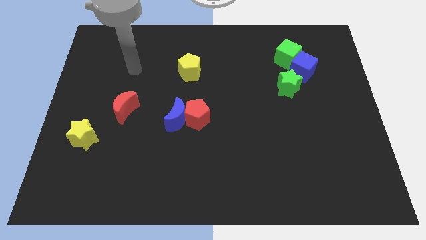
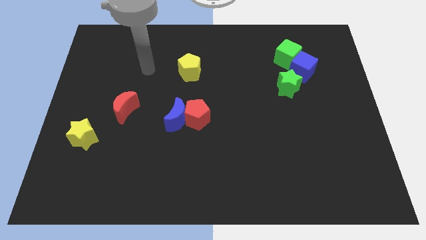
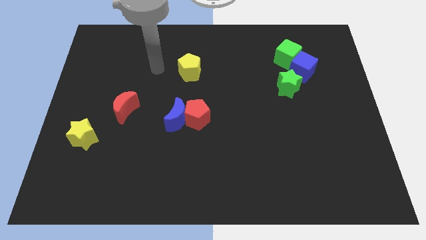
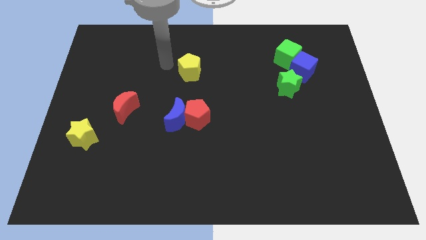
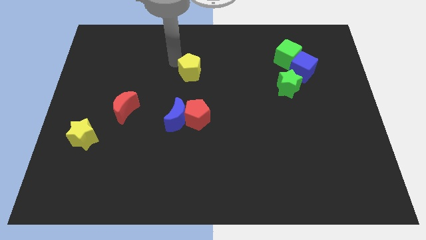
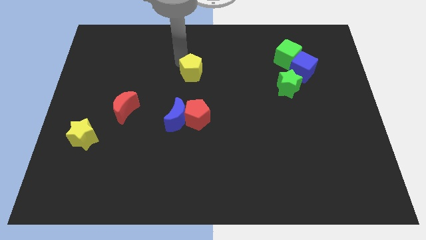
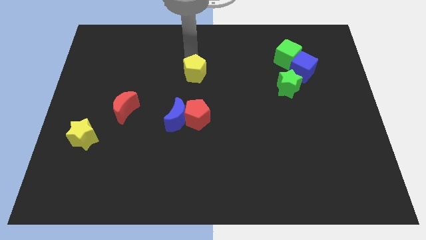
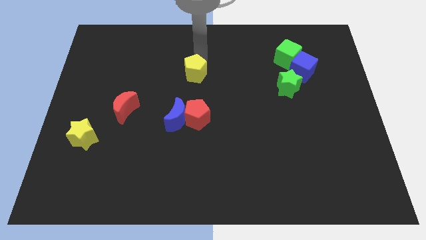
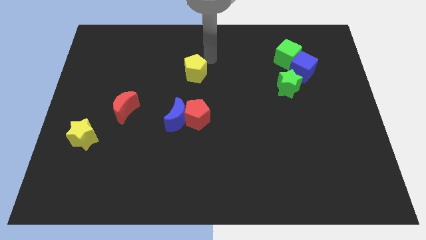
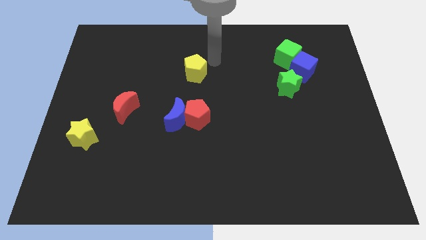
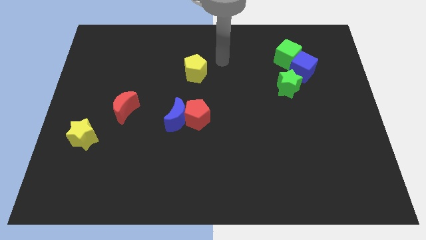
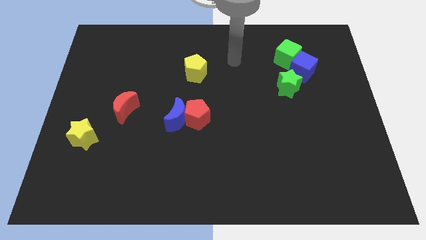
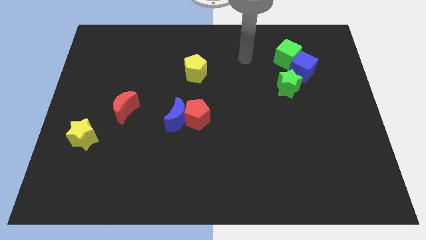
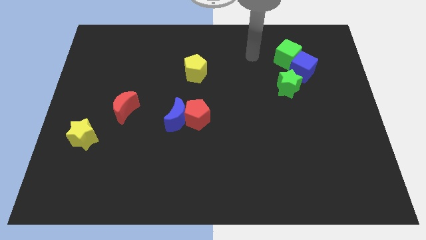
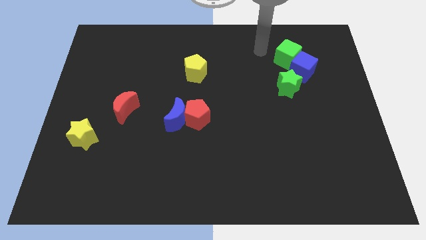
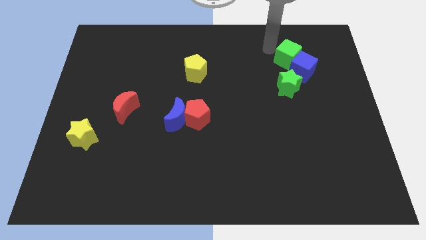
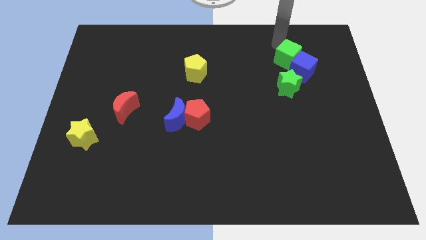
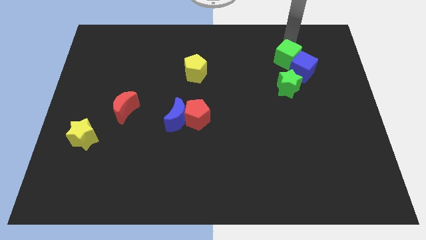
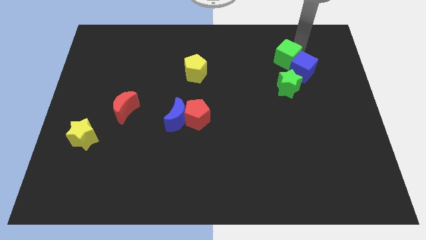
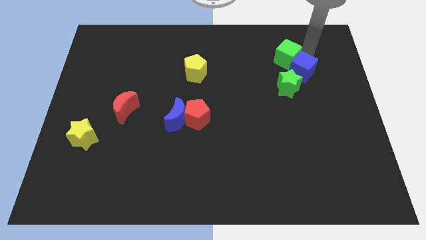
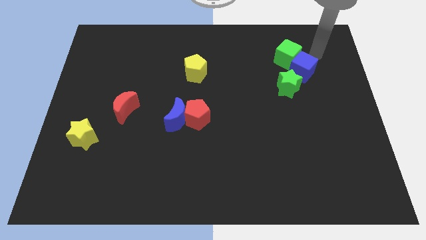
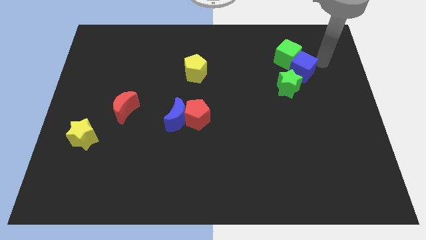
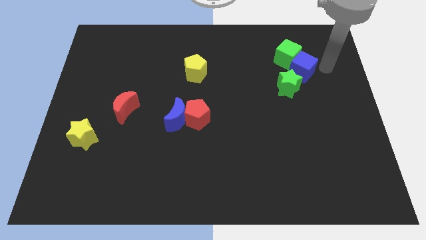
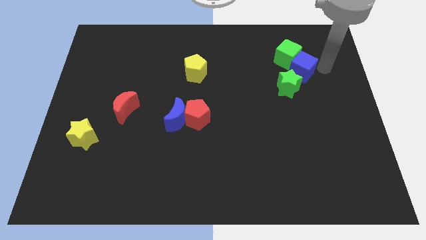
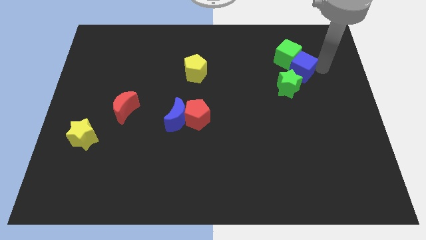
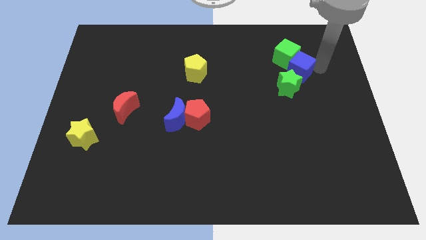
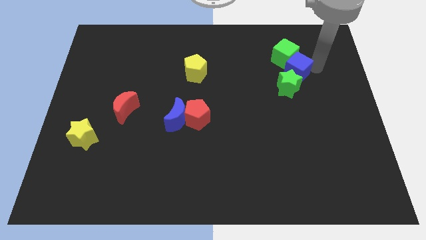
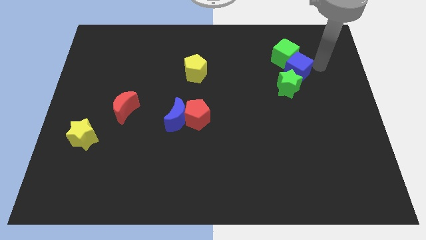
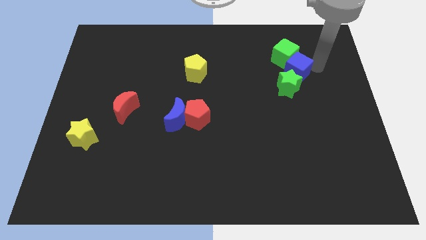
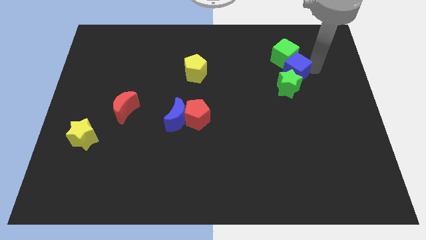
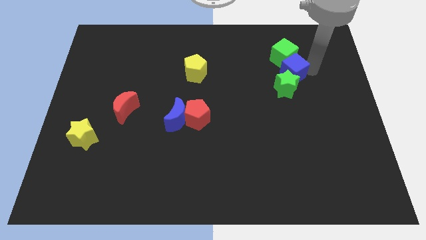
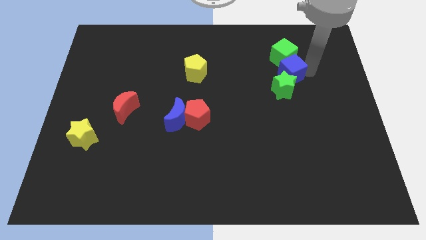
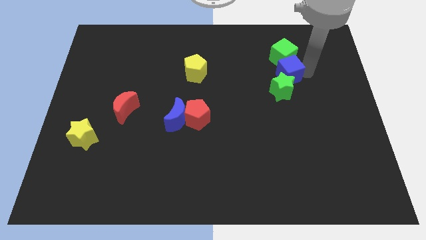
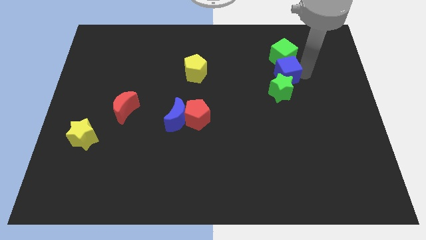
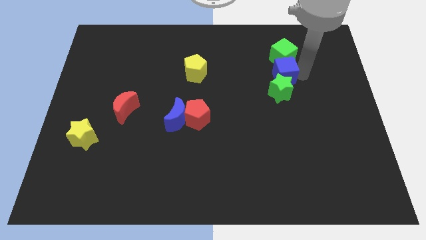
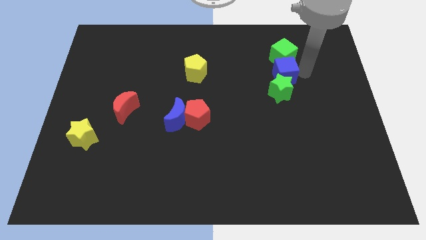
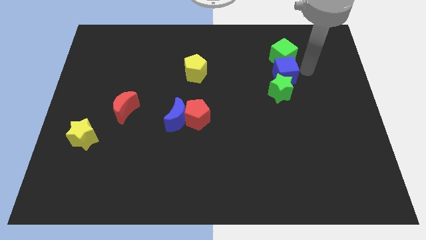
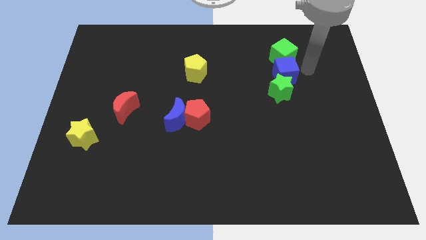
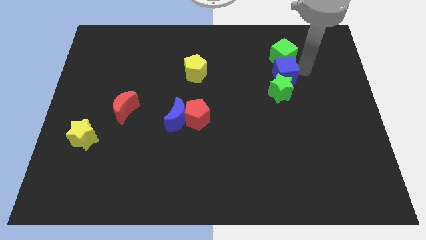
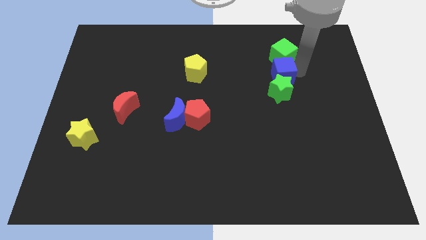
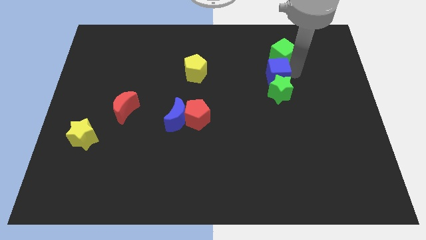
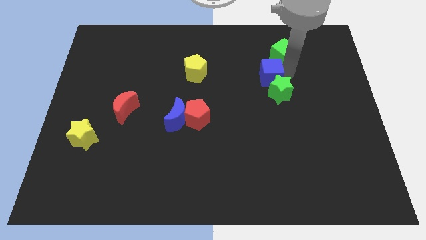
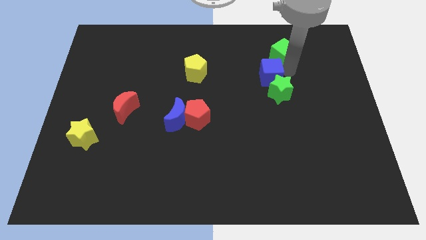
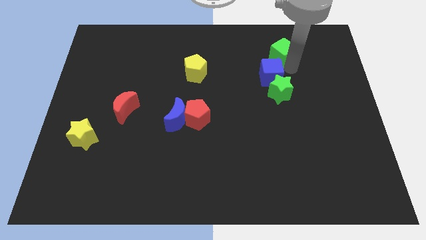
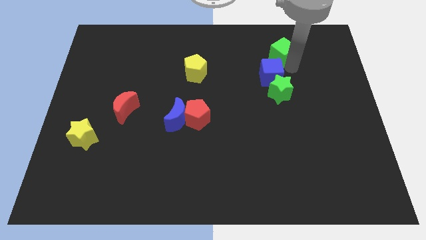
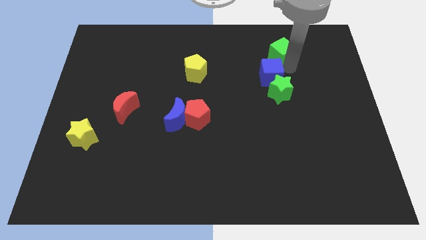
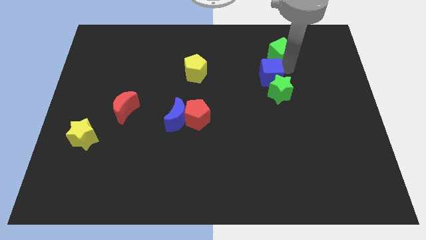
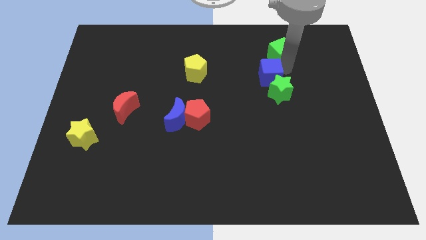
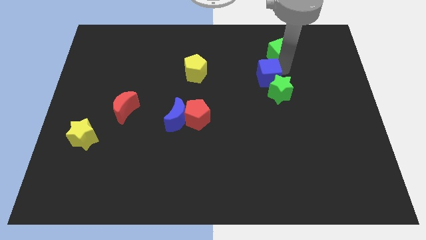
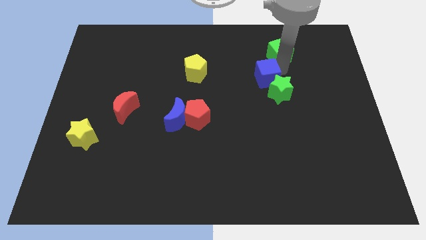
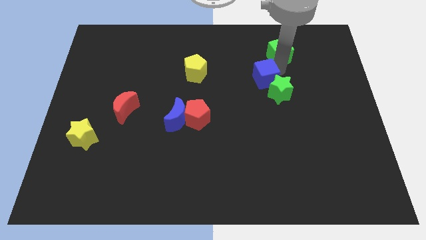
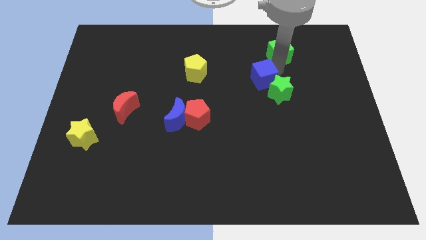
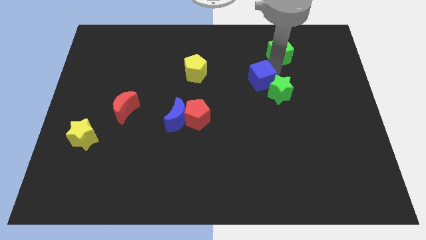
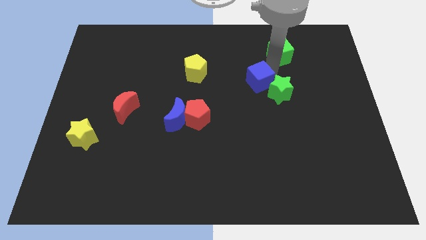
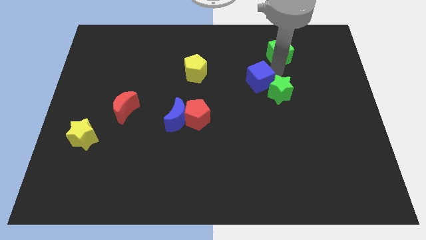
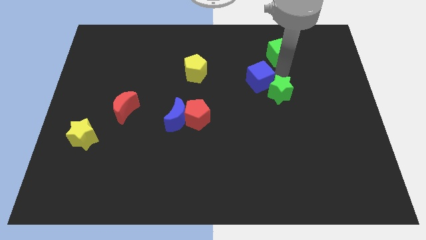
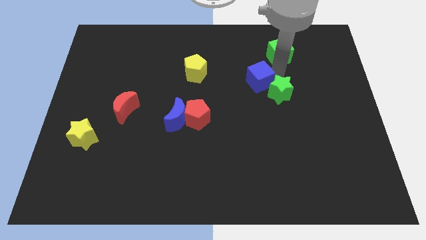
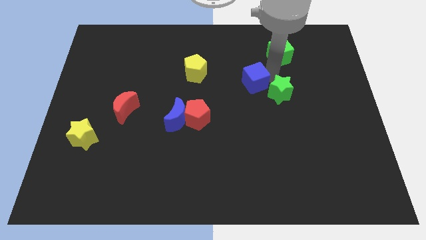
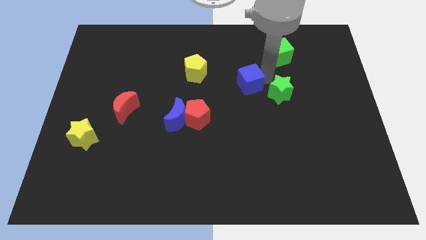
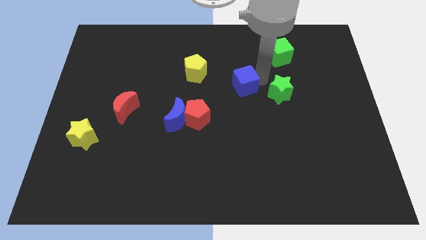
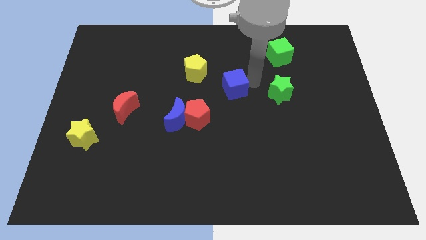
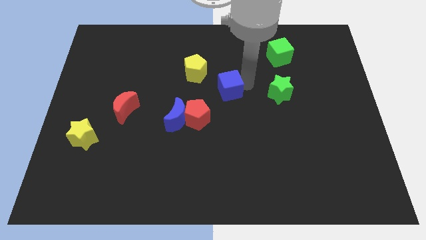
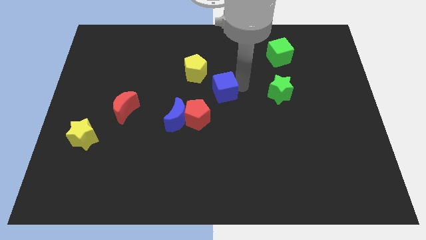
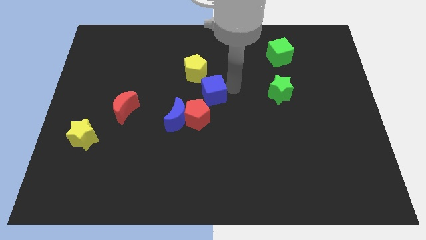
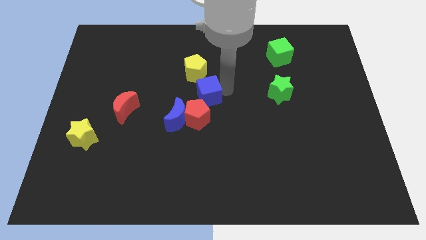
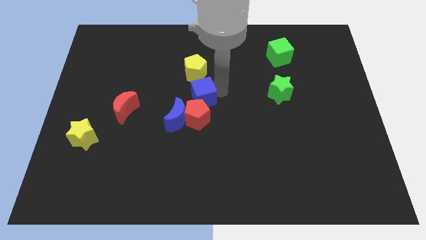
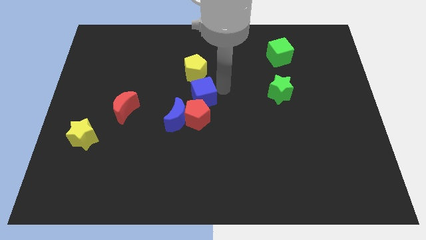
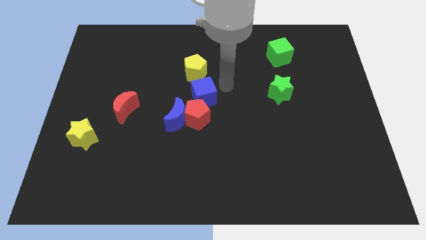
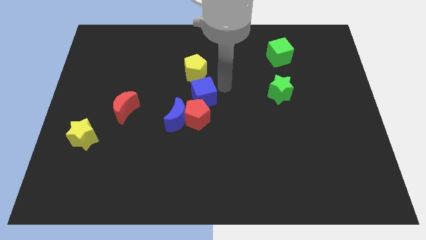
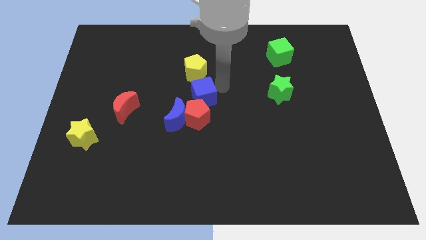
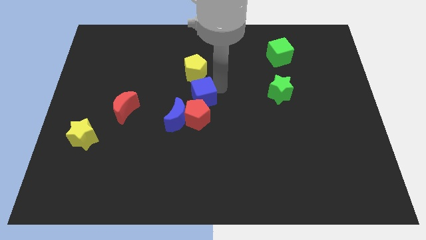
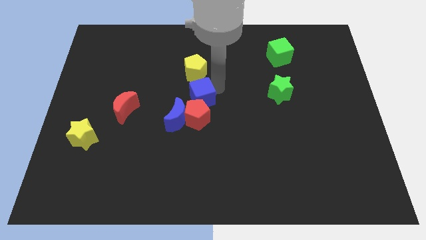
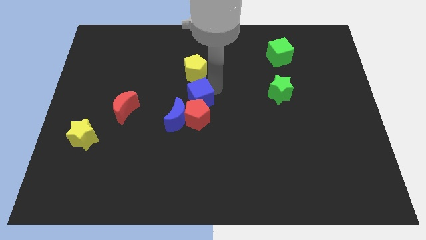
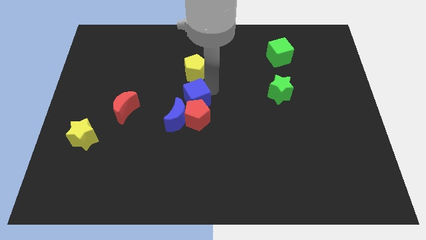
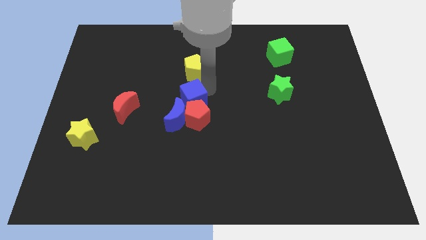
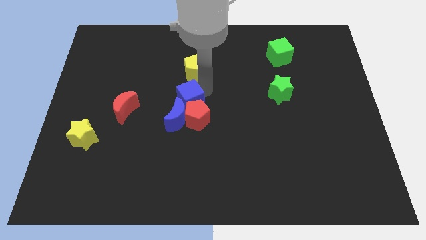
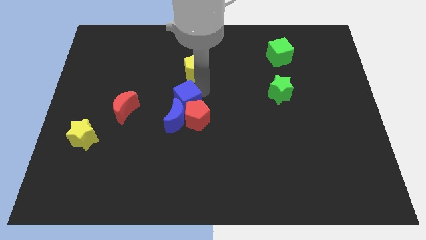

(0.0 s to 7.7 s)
move the blue cube next to the blue moon
